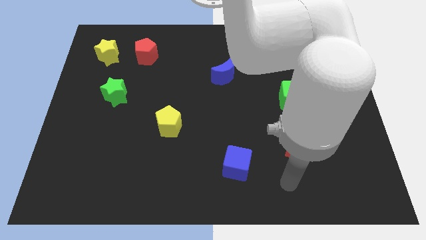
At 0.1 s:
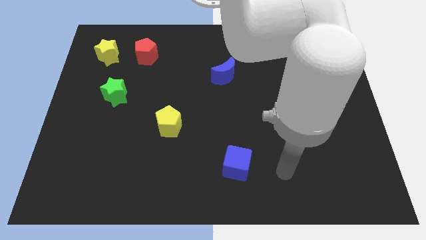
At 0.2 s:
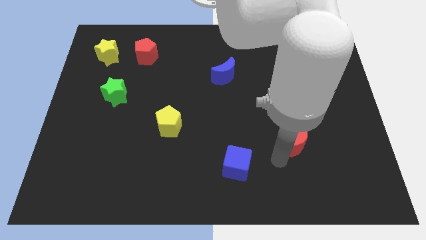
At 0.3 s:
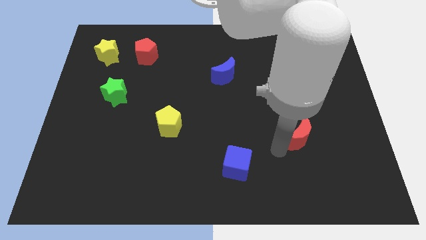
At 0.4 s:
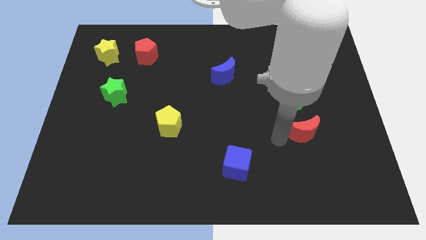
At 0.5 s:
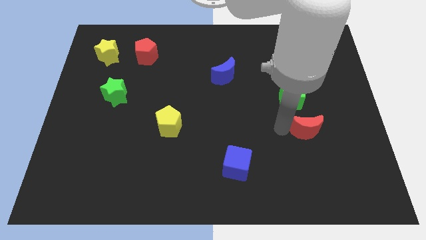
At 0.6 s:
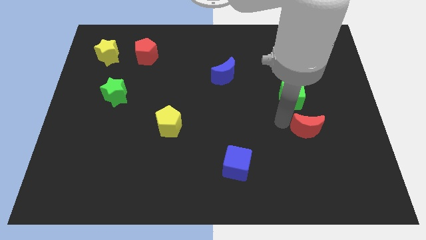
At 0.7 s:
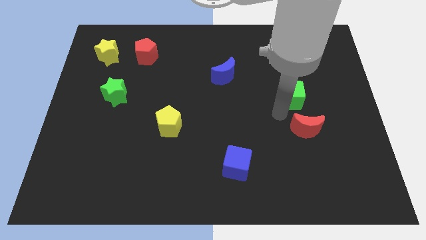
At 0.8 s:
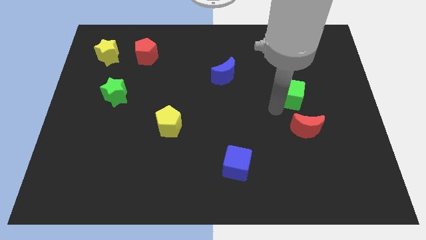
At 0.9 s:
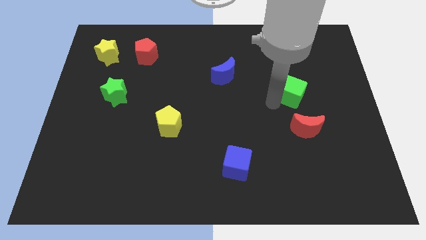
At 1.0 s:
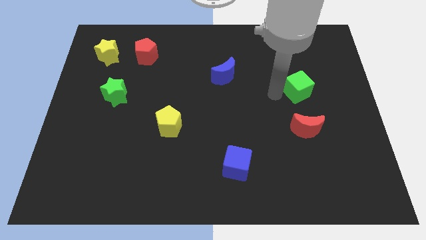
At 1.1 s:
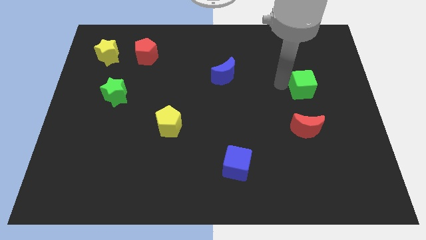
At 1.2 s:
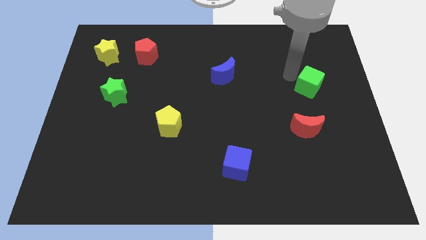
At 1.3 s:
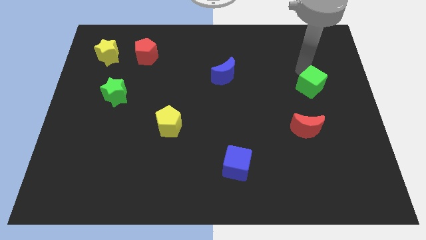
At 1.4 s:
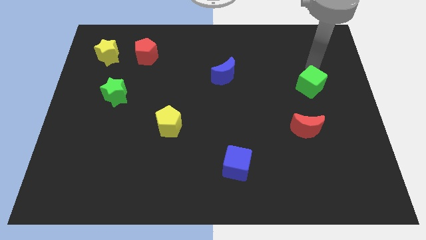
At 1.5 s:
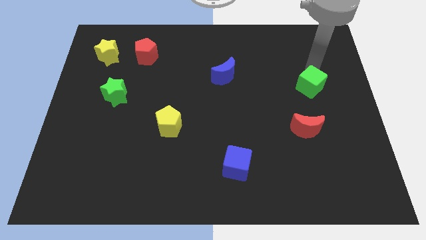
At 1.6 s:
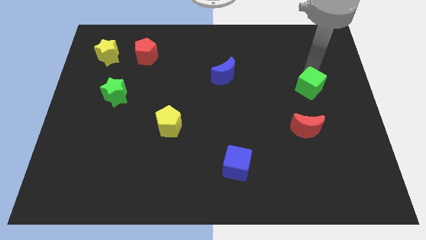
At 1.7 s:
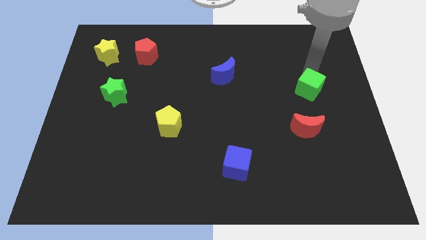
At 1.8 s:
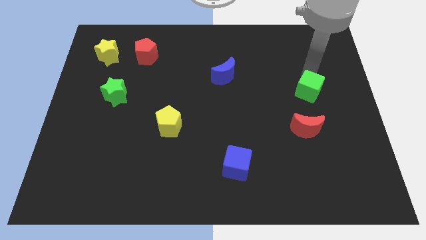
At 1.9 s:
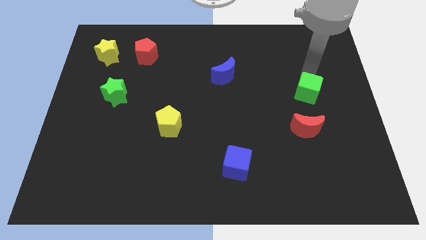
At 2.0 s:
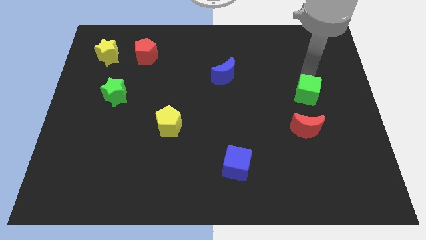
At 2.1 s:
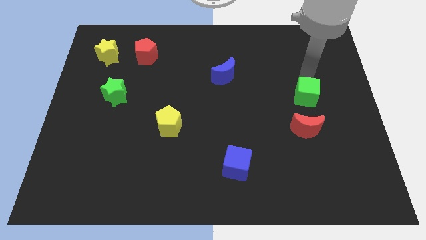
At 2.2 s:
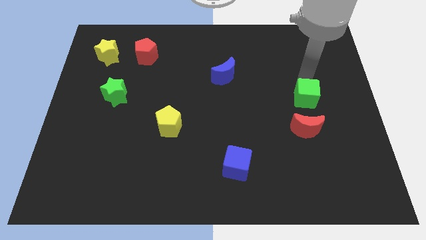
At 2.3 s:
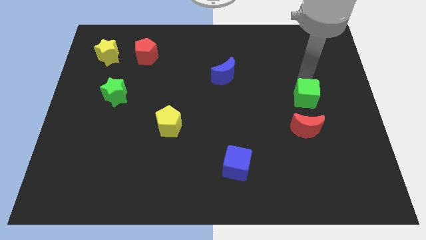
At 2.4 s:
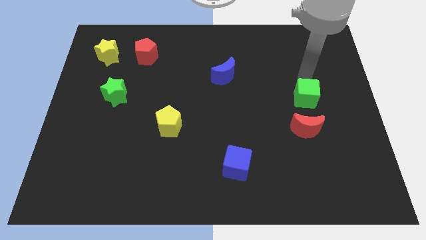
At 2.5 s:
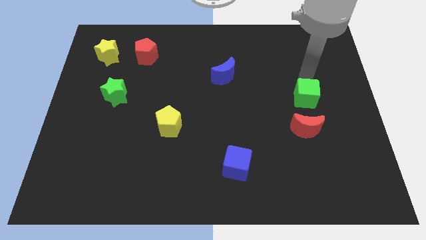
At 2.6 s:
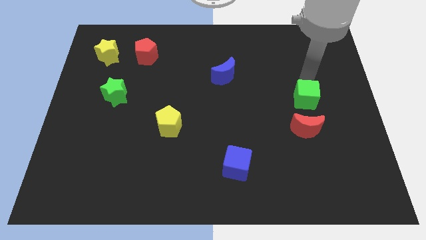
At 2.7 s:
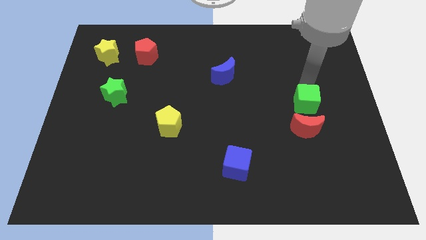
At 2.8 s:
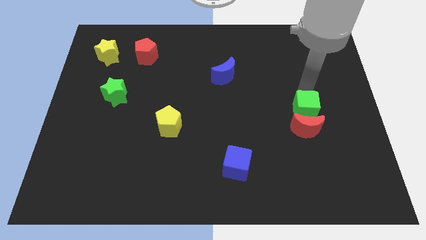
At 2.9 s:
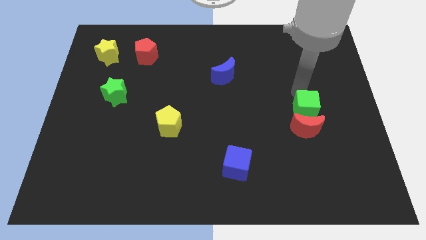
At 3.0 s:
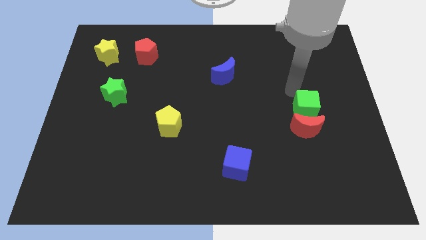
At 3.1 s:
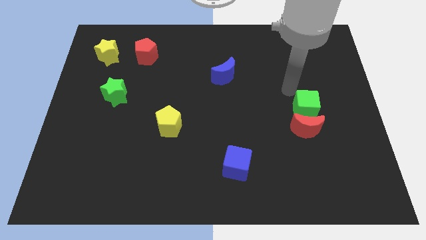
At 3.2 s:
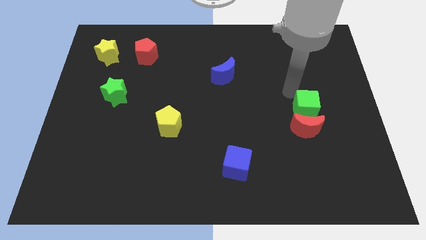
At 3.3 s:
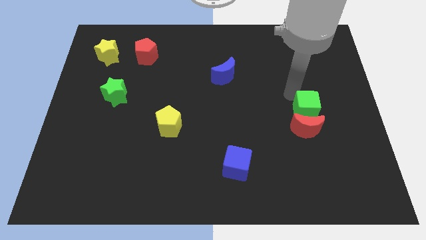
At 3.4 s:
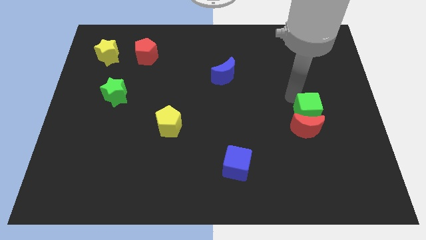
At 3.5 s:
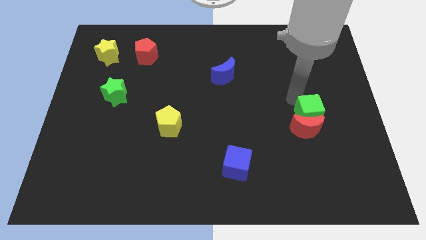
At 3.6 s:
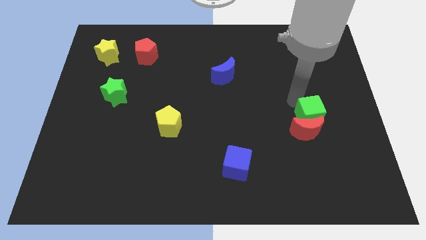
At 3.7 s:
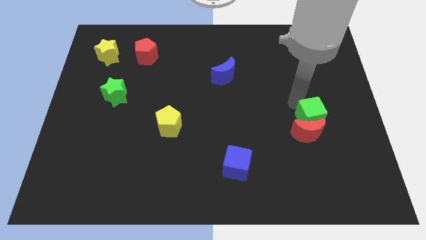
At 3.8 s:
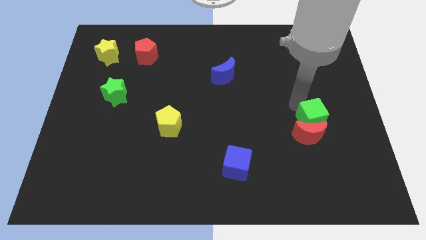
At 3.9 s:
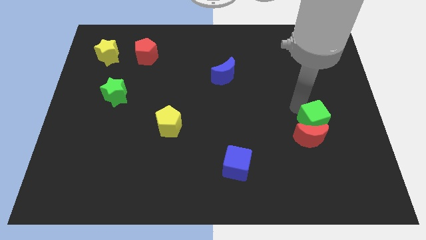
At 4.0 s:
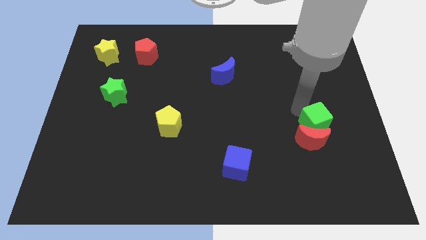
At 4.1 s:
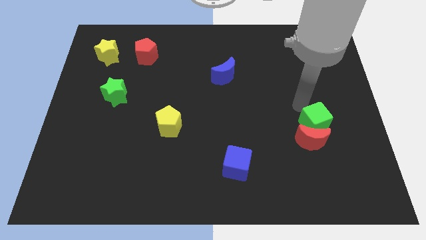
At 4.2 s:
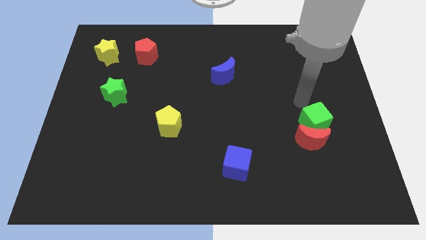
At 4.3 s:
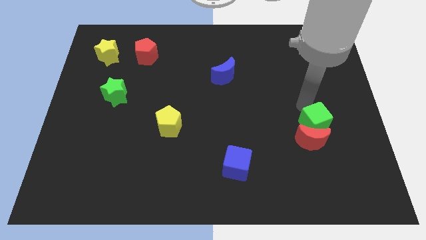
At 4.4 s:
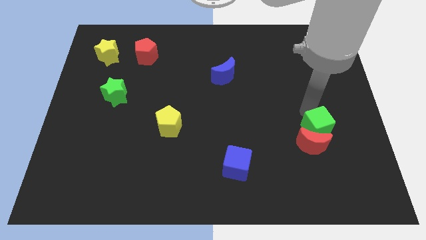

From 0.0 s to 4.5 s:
slightly push the green cube down

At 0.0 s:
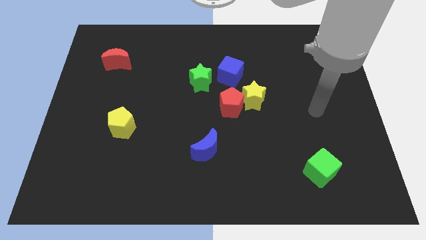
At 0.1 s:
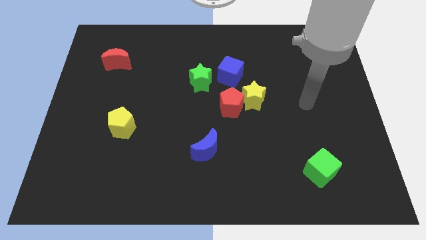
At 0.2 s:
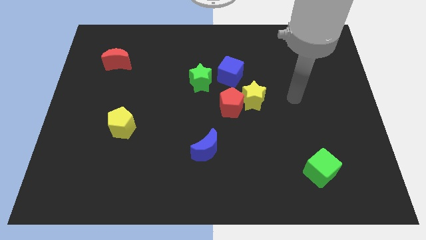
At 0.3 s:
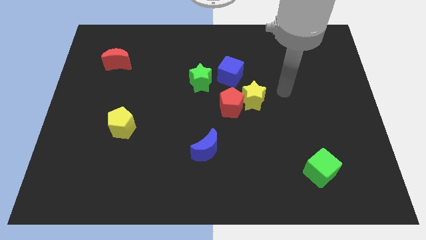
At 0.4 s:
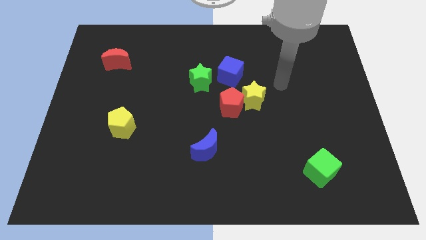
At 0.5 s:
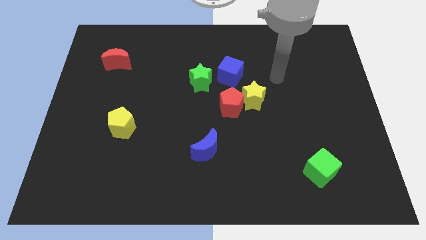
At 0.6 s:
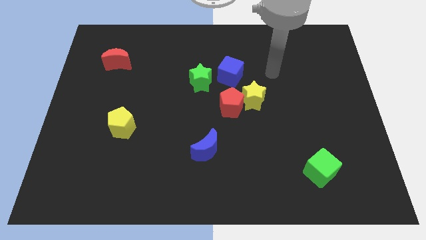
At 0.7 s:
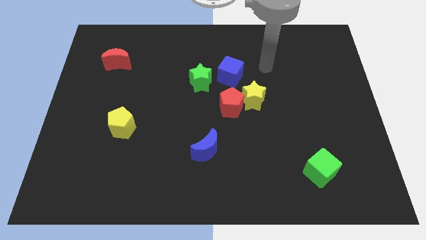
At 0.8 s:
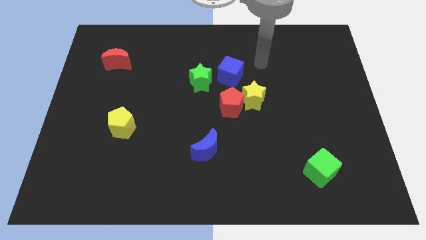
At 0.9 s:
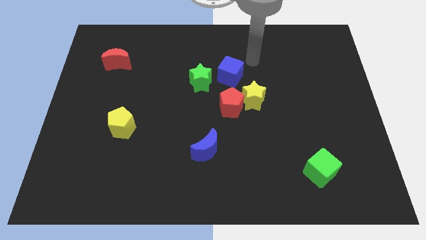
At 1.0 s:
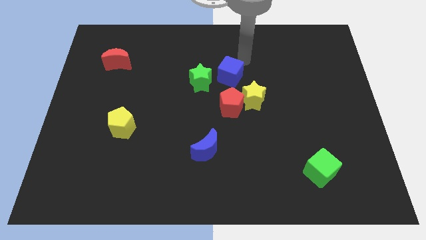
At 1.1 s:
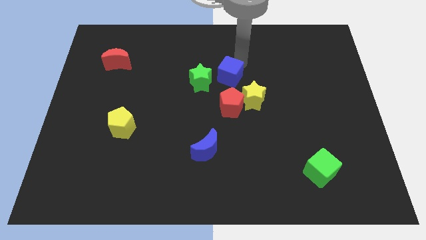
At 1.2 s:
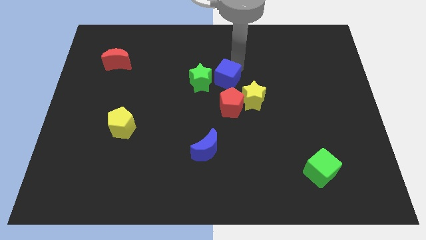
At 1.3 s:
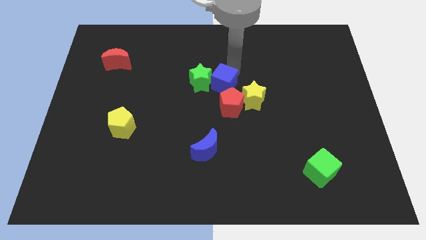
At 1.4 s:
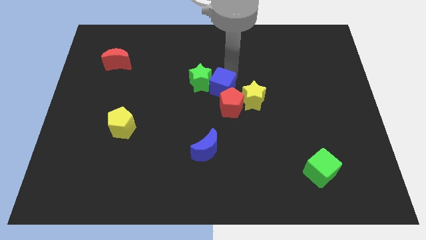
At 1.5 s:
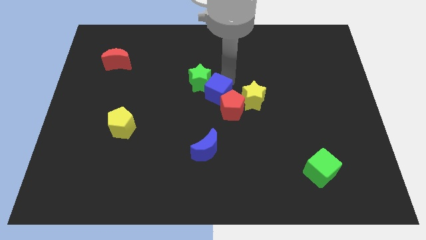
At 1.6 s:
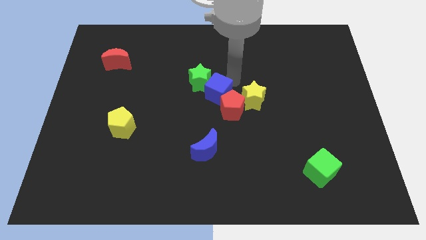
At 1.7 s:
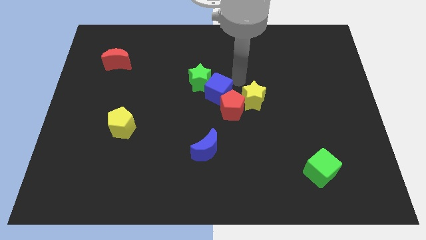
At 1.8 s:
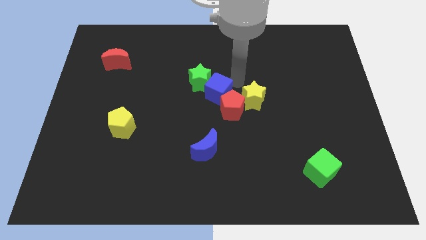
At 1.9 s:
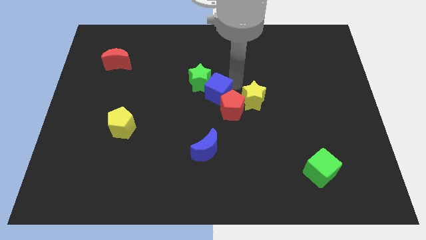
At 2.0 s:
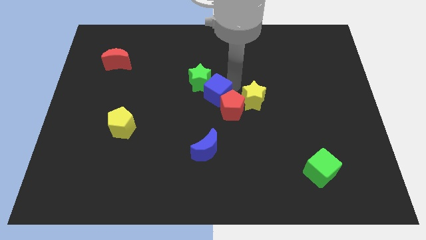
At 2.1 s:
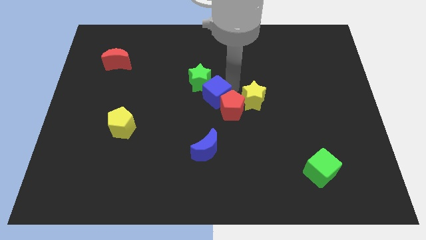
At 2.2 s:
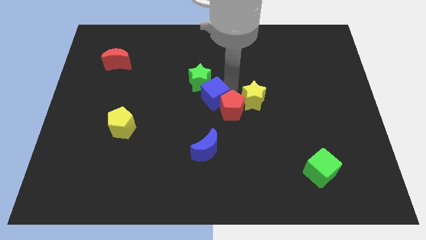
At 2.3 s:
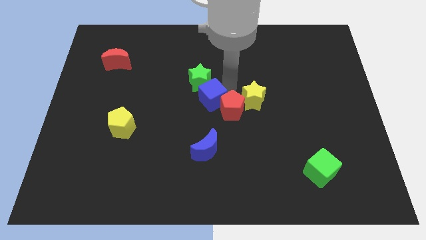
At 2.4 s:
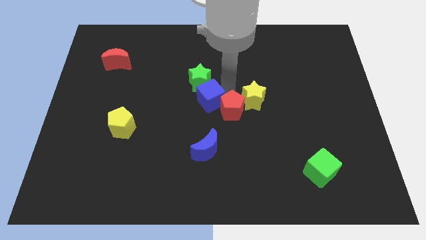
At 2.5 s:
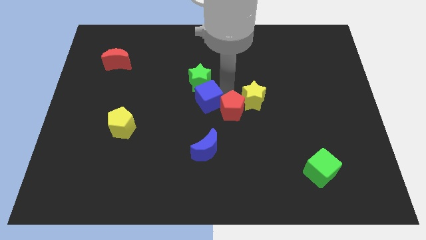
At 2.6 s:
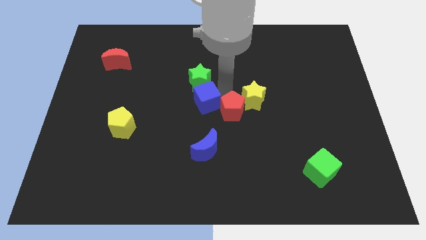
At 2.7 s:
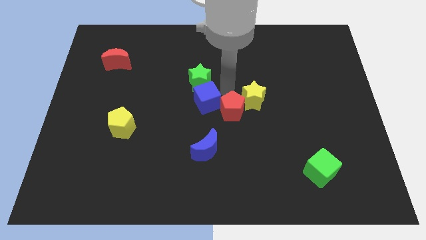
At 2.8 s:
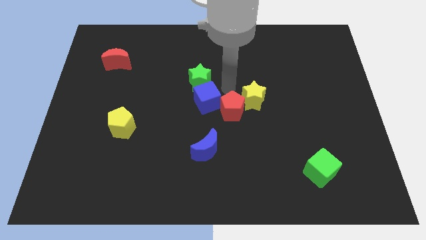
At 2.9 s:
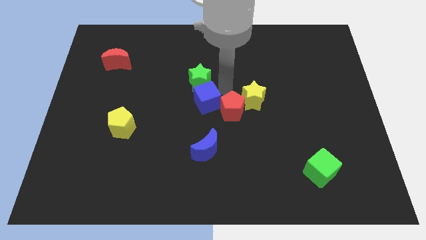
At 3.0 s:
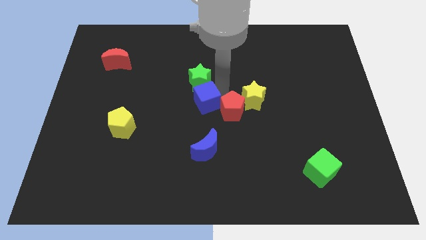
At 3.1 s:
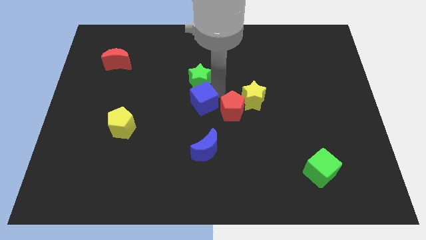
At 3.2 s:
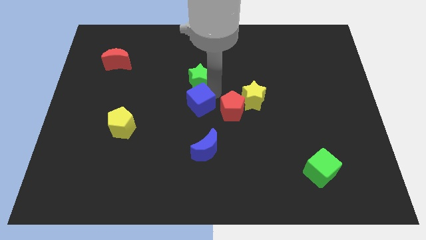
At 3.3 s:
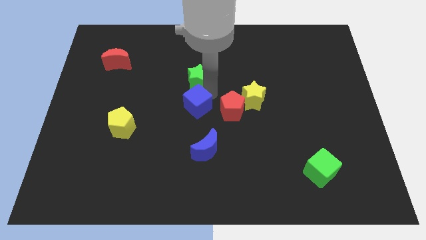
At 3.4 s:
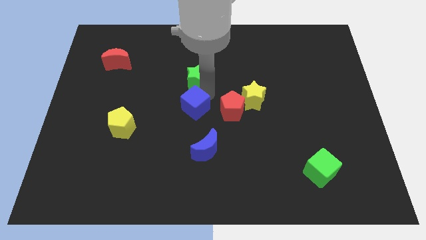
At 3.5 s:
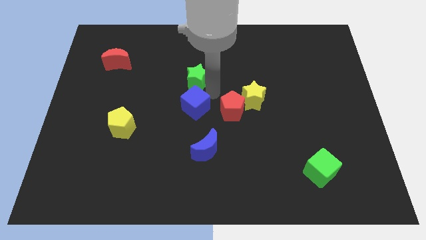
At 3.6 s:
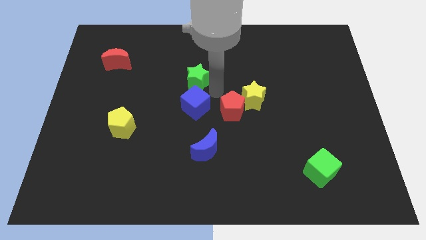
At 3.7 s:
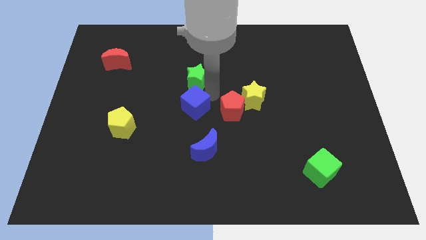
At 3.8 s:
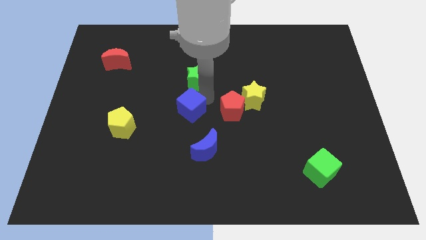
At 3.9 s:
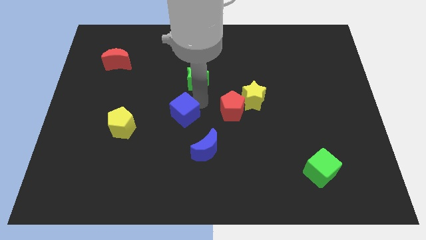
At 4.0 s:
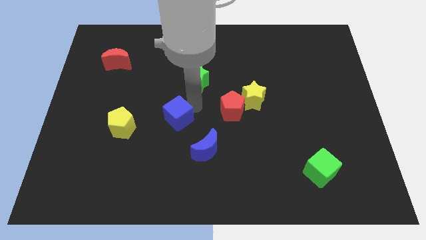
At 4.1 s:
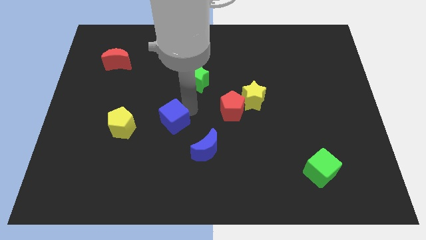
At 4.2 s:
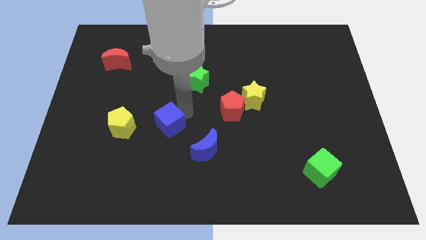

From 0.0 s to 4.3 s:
slide the blue cube downwards and left
